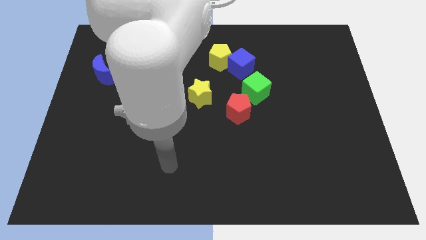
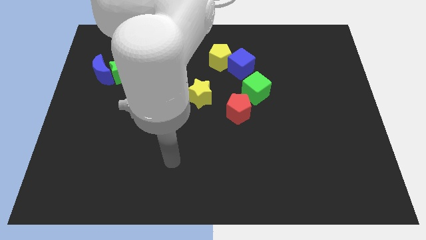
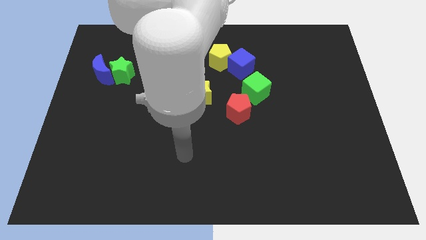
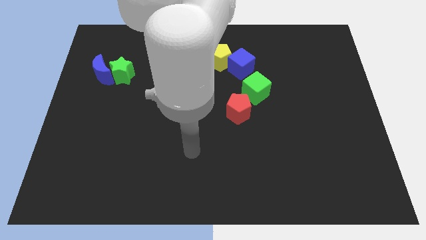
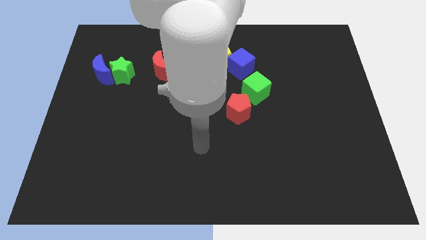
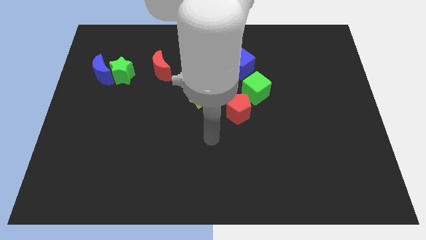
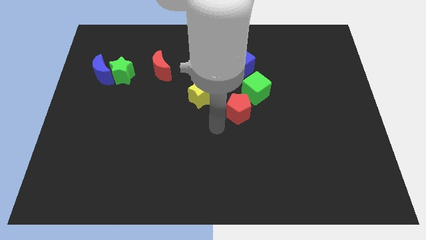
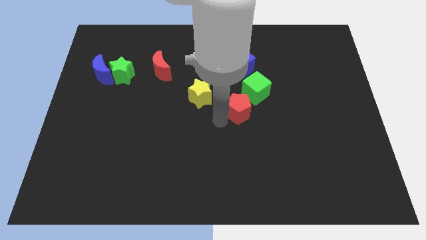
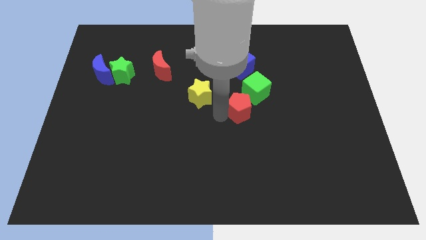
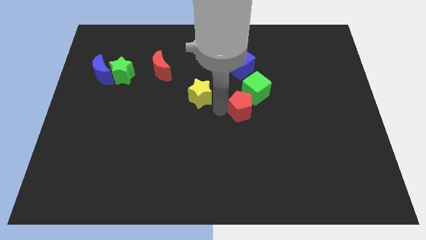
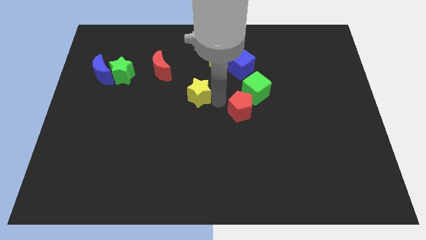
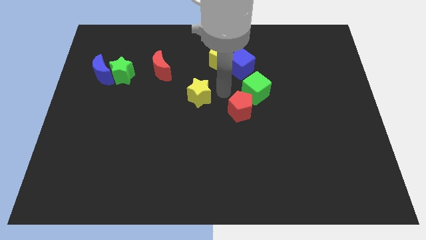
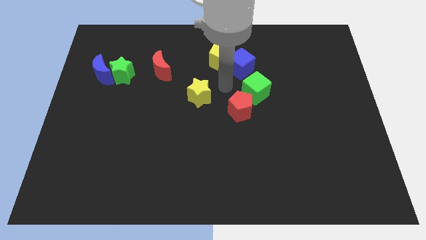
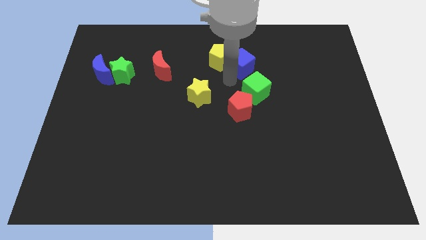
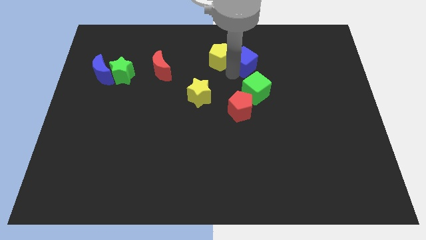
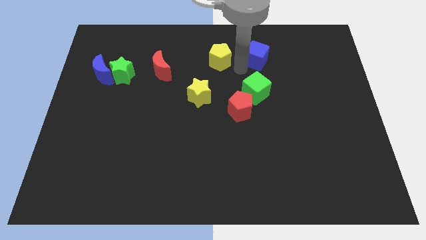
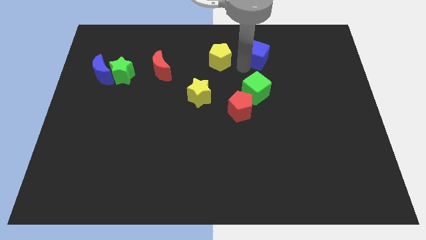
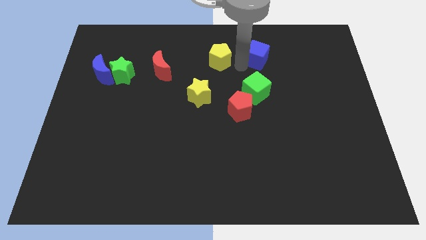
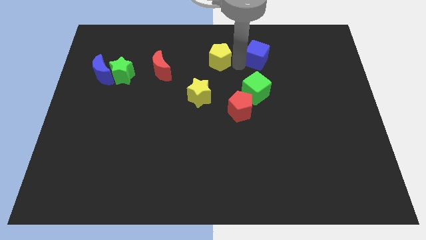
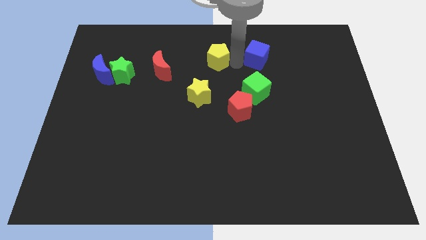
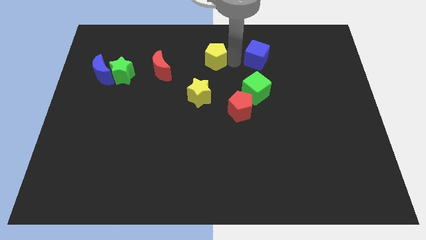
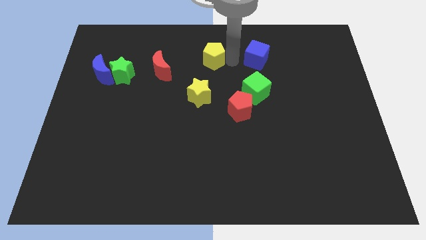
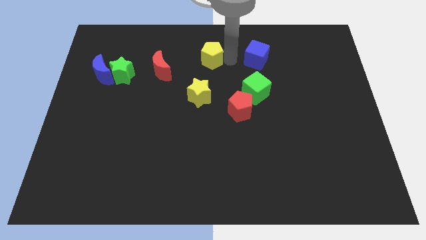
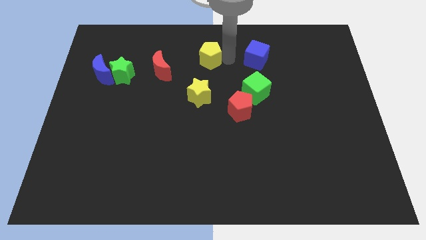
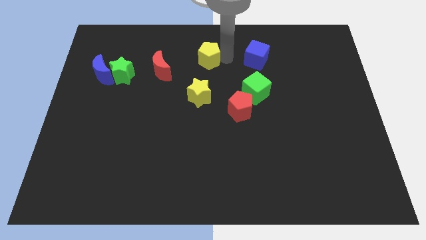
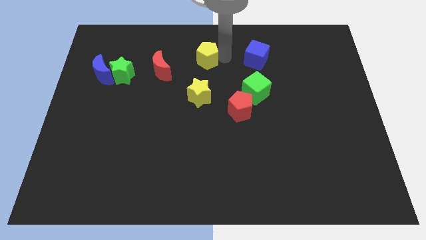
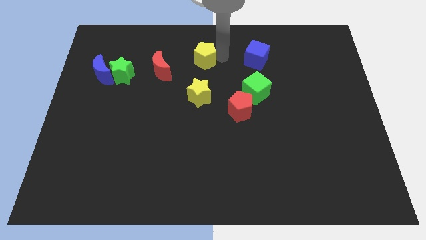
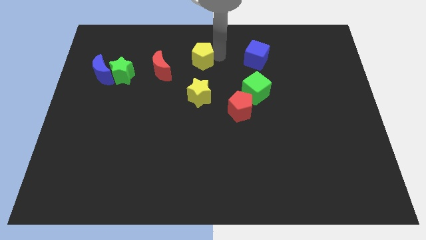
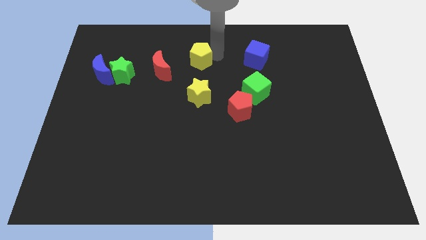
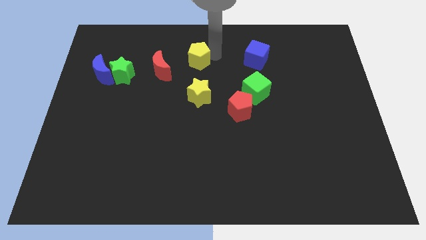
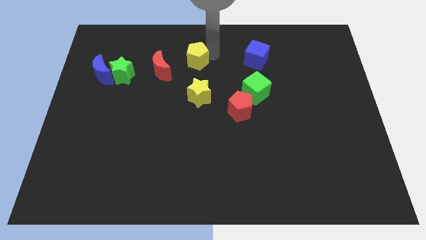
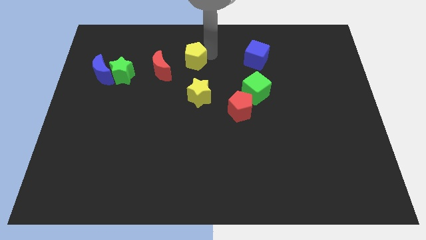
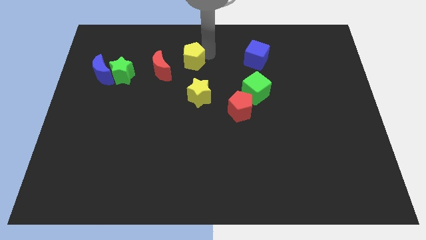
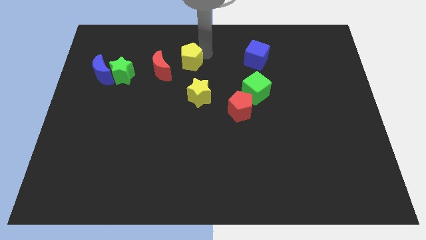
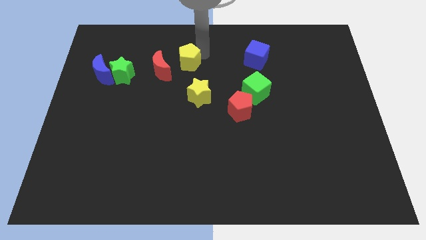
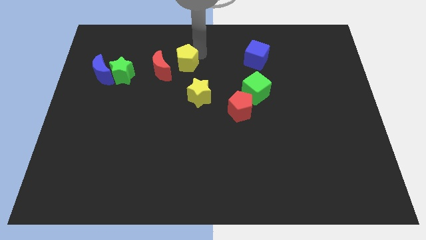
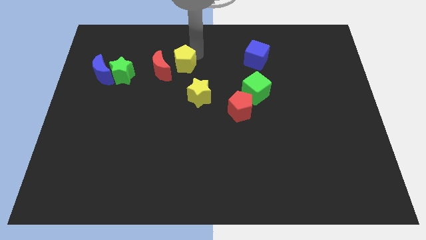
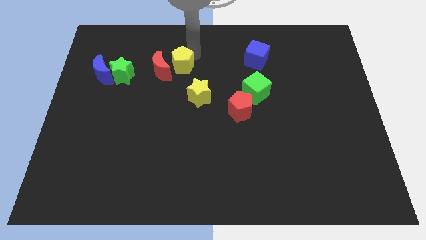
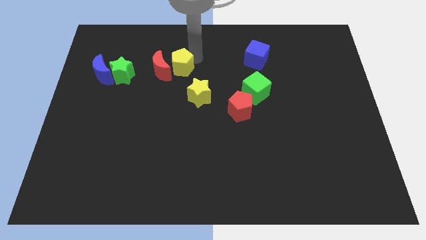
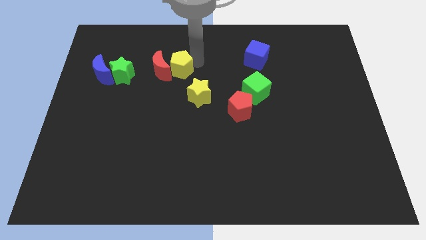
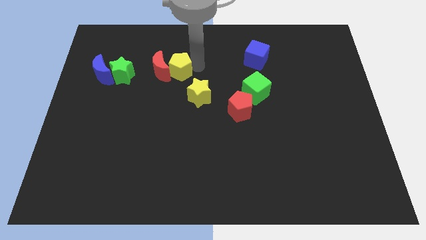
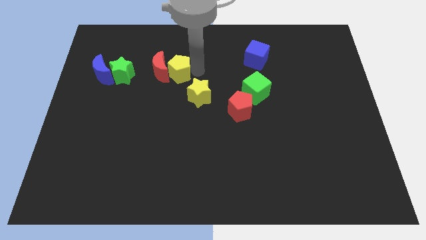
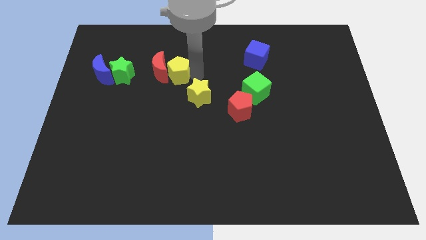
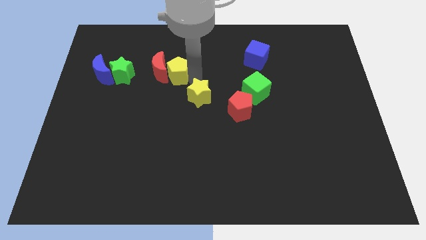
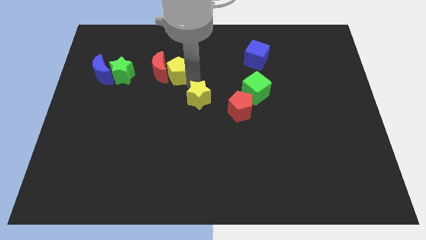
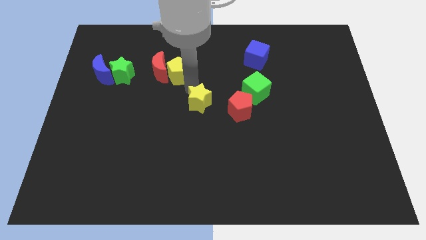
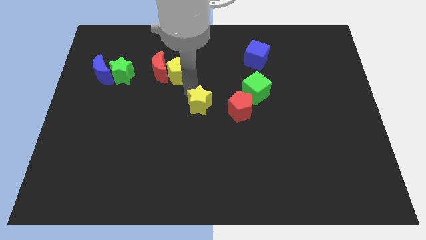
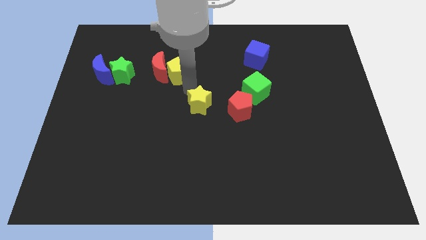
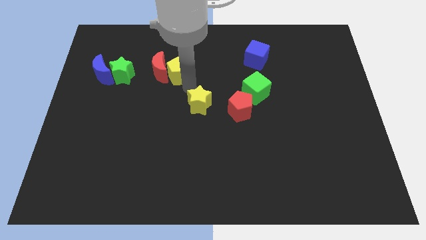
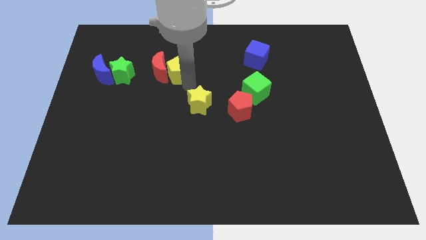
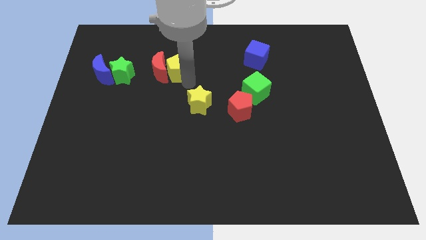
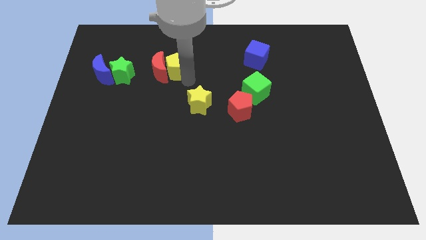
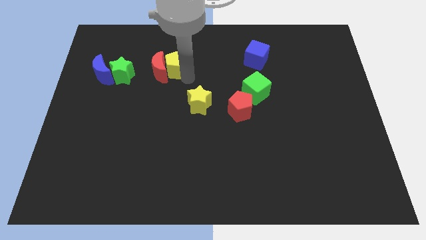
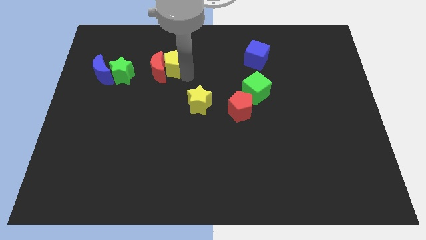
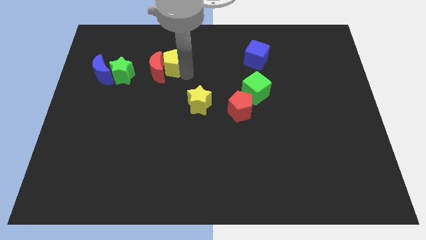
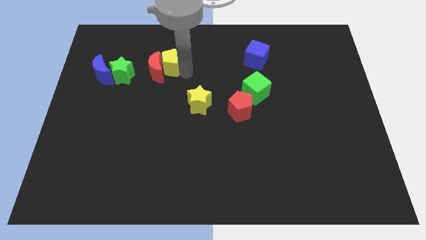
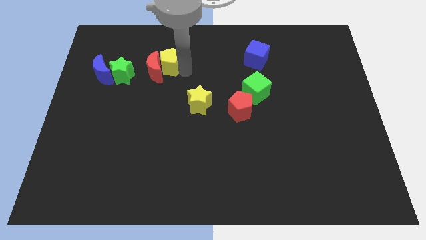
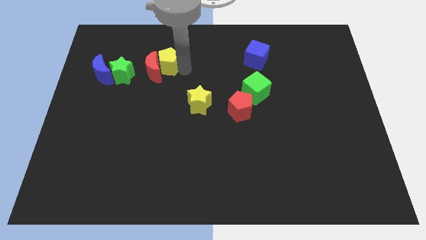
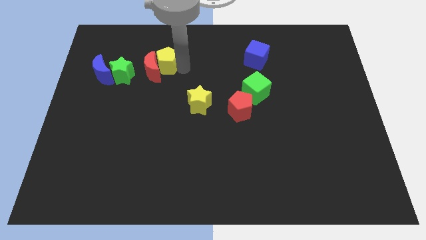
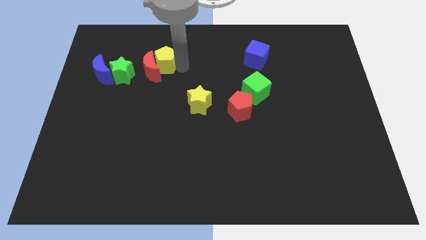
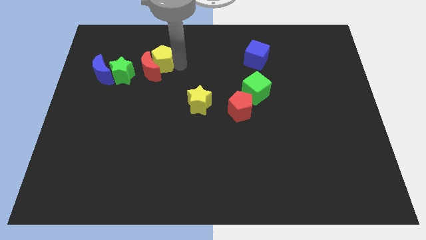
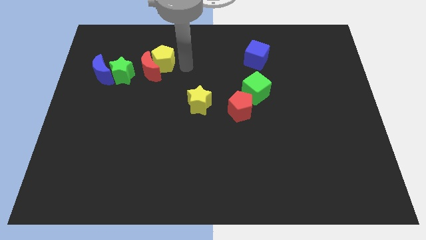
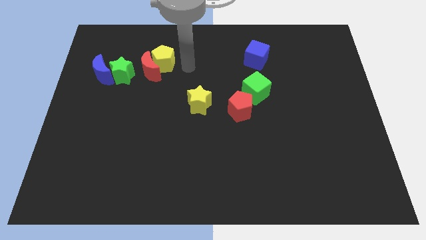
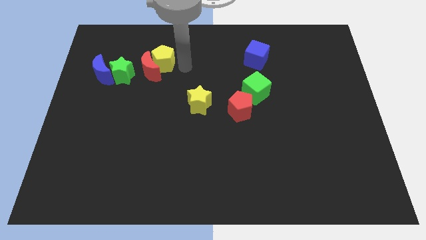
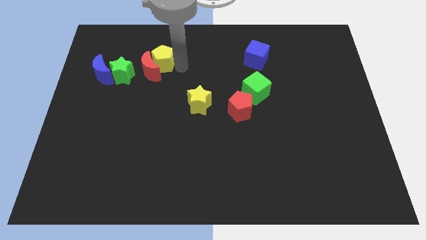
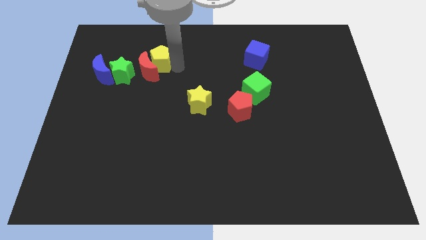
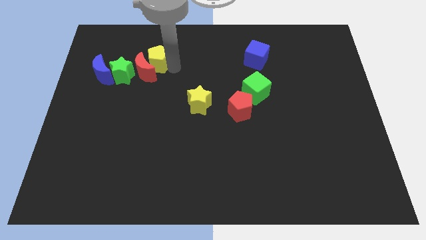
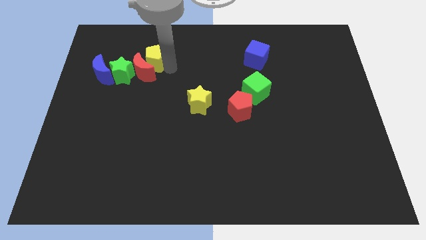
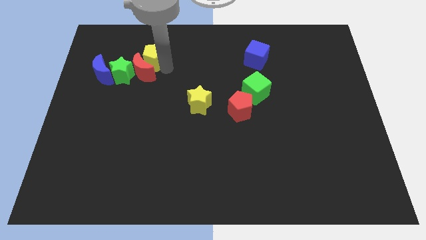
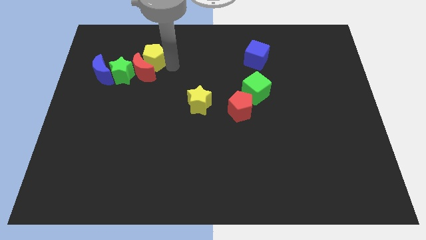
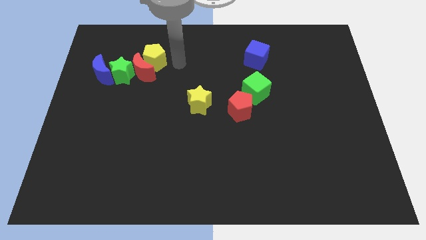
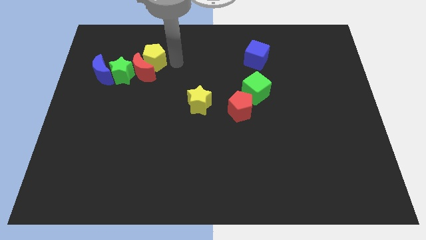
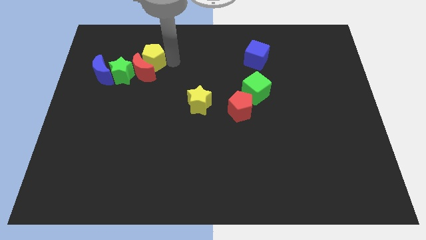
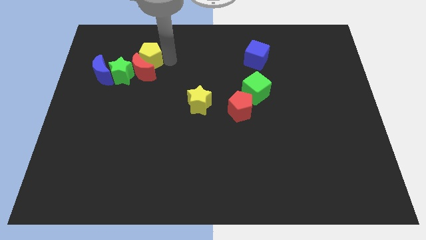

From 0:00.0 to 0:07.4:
put the yellow pentagon to the top left side of the red moon
